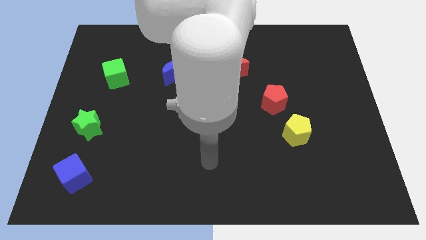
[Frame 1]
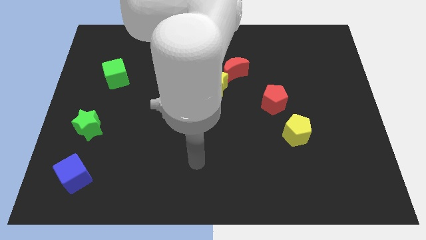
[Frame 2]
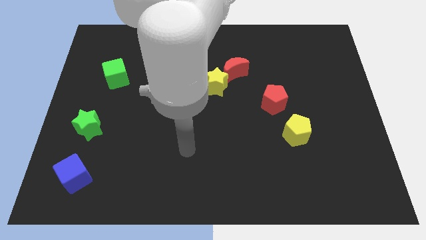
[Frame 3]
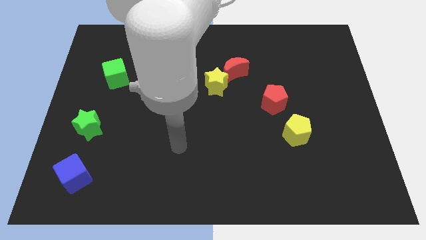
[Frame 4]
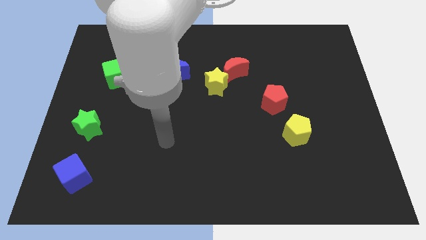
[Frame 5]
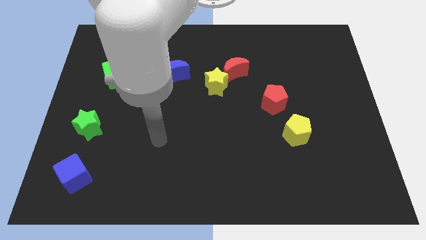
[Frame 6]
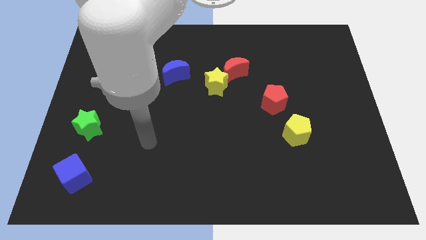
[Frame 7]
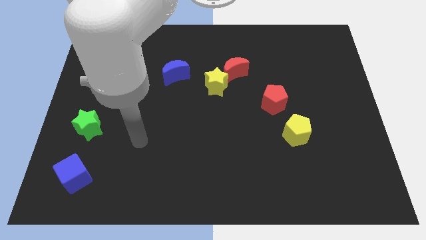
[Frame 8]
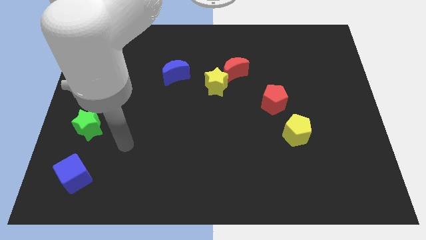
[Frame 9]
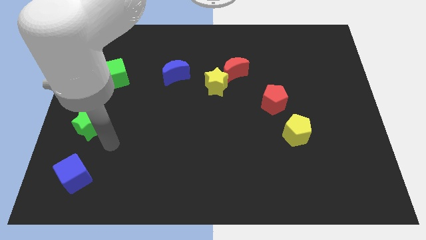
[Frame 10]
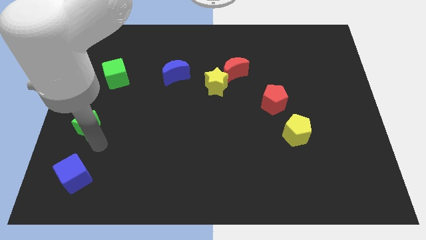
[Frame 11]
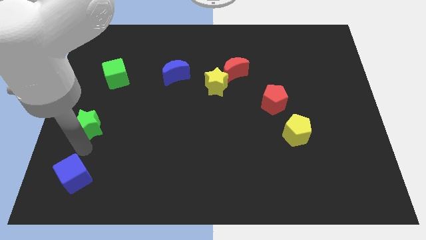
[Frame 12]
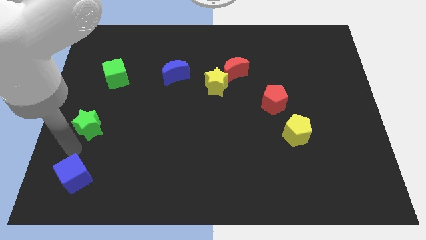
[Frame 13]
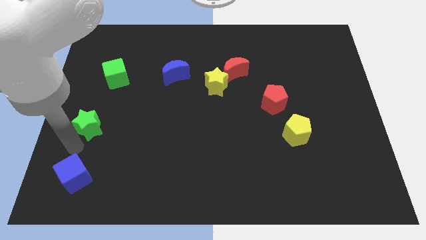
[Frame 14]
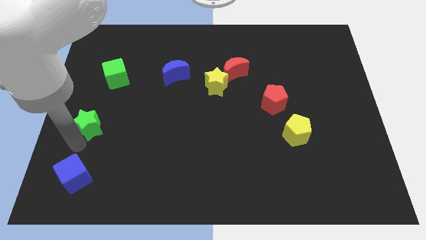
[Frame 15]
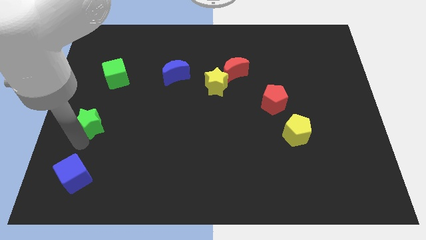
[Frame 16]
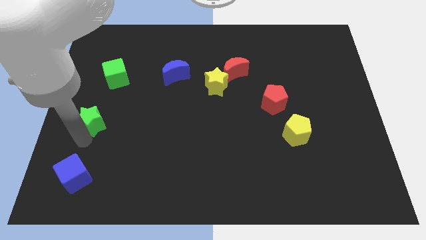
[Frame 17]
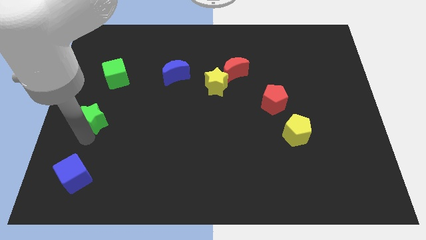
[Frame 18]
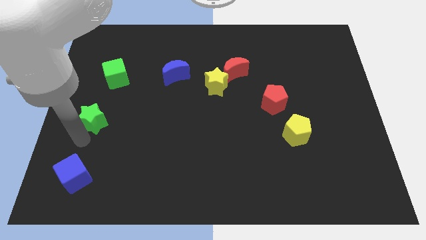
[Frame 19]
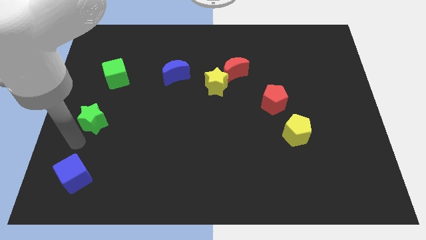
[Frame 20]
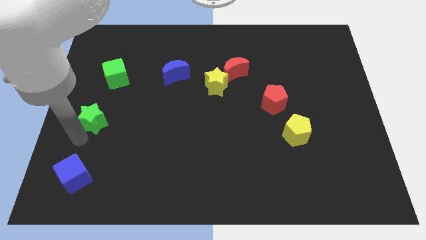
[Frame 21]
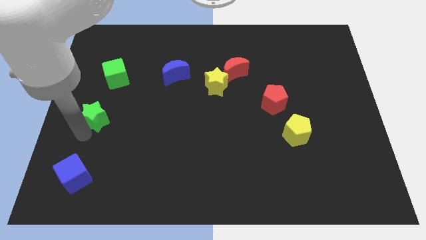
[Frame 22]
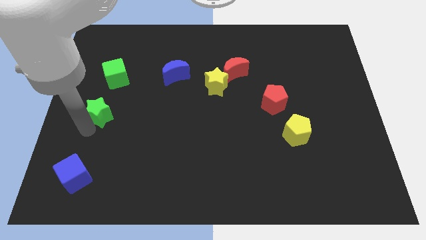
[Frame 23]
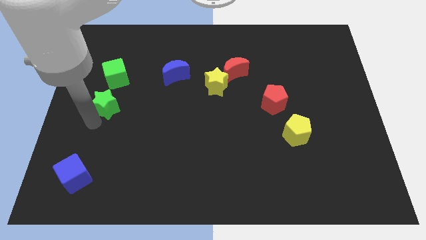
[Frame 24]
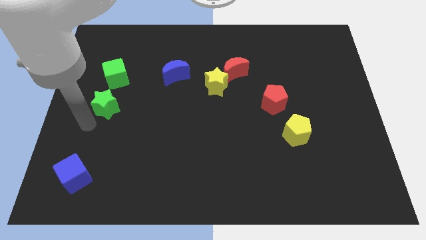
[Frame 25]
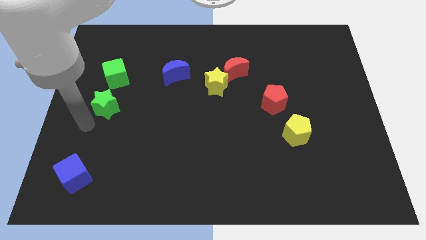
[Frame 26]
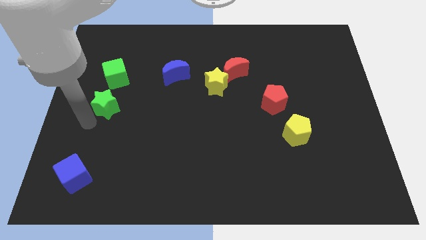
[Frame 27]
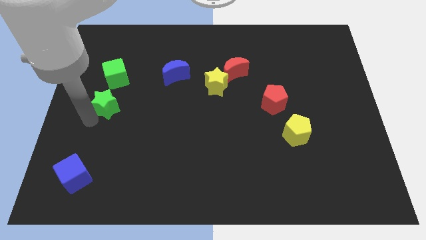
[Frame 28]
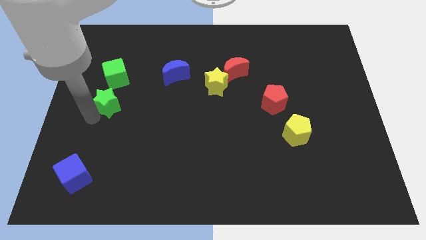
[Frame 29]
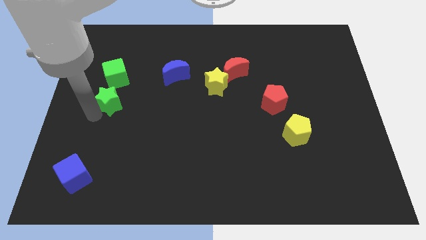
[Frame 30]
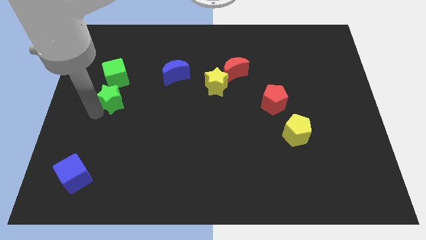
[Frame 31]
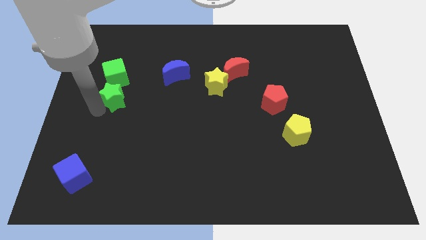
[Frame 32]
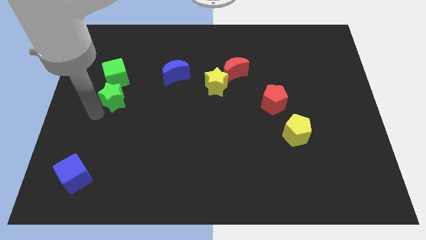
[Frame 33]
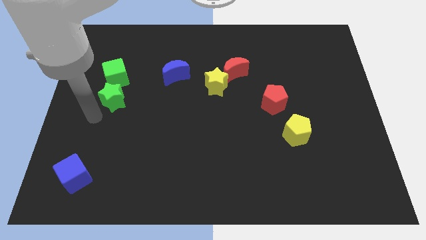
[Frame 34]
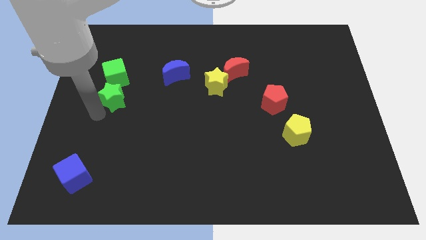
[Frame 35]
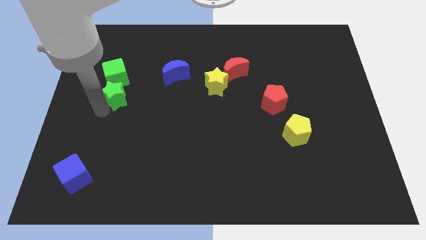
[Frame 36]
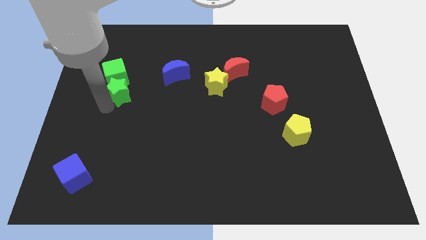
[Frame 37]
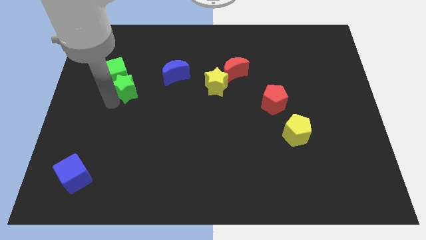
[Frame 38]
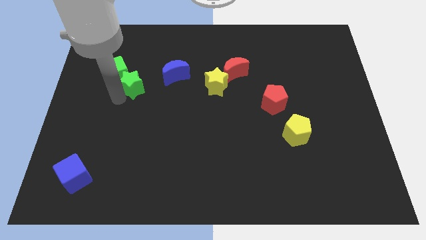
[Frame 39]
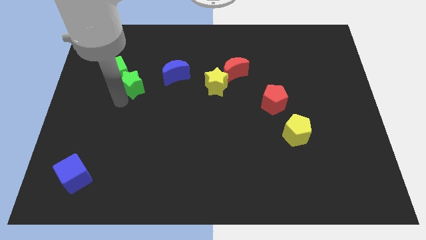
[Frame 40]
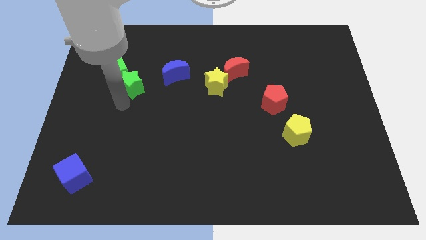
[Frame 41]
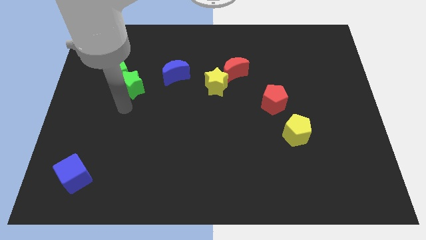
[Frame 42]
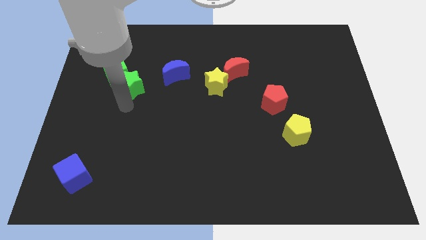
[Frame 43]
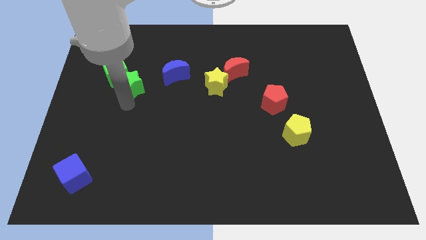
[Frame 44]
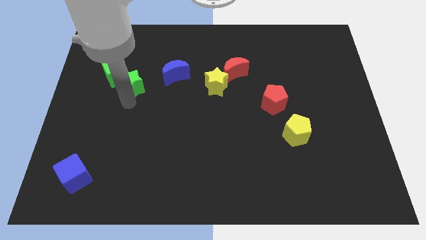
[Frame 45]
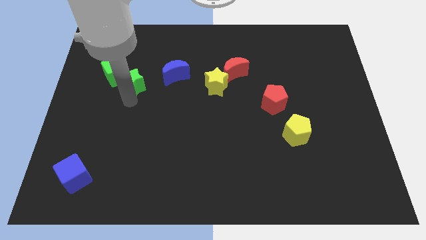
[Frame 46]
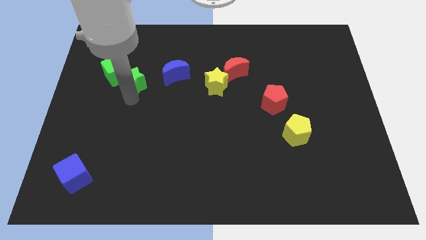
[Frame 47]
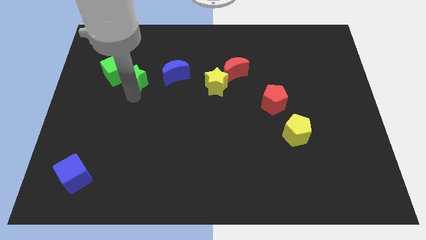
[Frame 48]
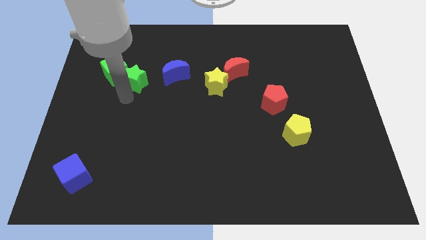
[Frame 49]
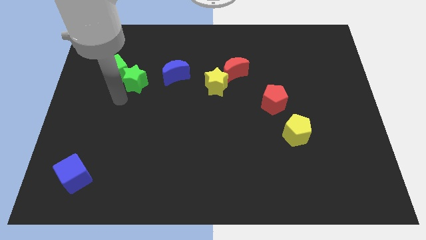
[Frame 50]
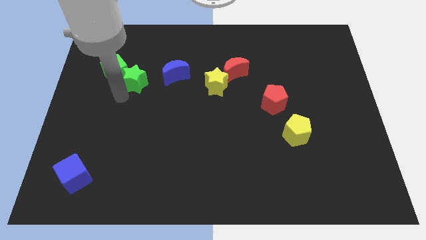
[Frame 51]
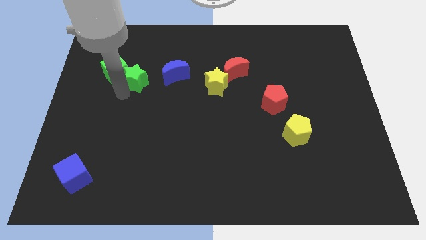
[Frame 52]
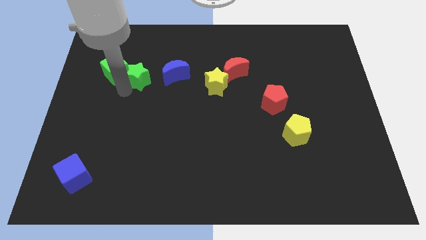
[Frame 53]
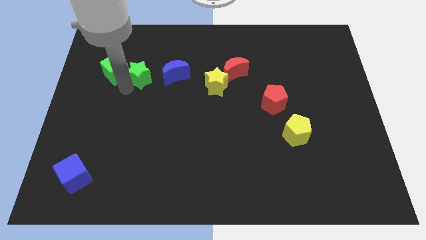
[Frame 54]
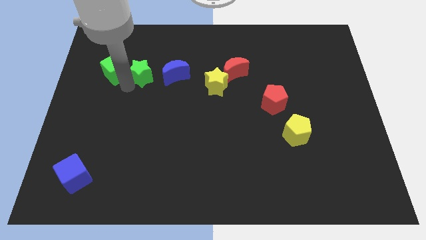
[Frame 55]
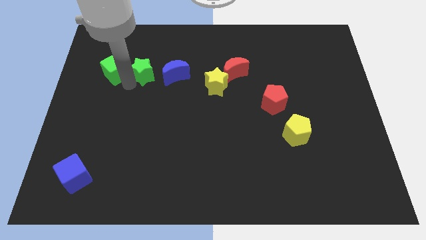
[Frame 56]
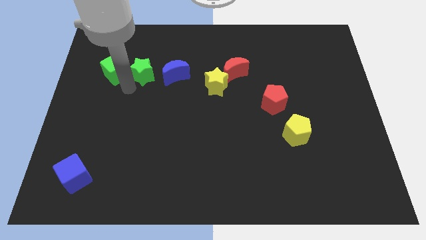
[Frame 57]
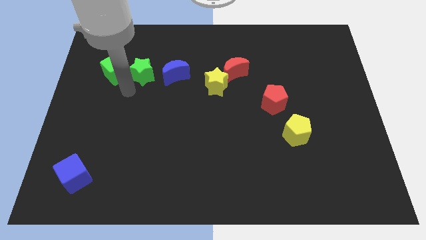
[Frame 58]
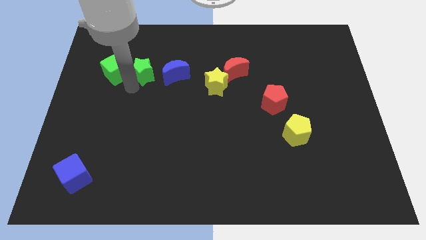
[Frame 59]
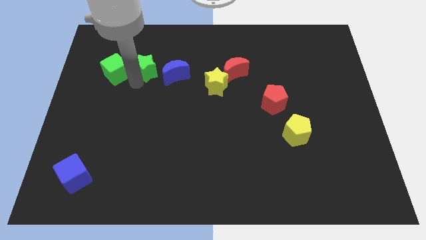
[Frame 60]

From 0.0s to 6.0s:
slide the green star to the top left of the blue moon
